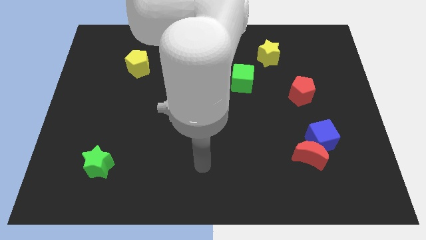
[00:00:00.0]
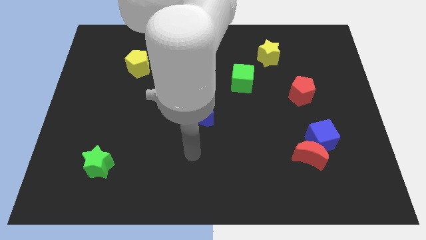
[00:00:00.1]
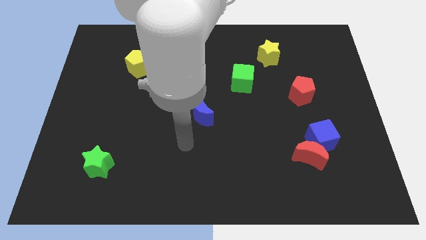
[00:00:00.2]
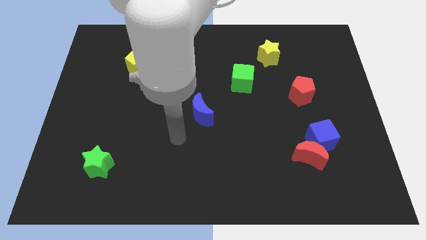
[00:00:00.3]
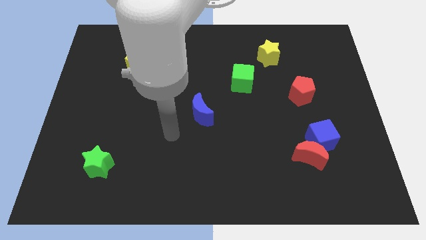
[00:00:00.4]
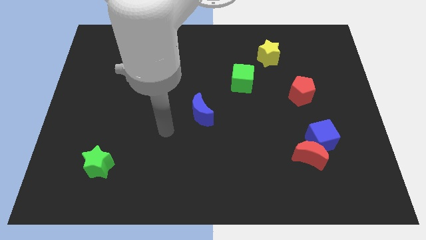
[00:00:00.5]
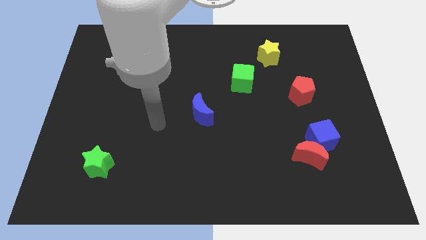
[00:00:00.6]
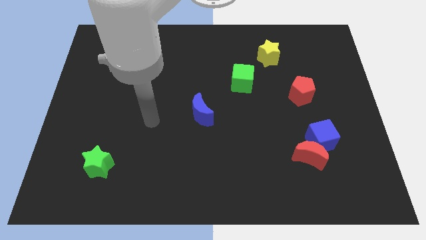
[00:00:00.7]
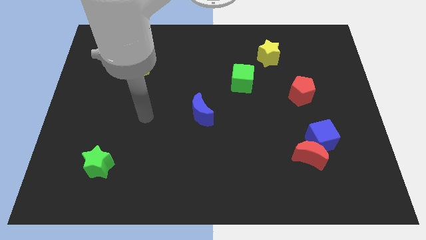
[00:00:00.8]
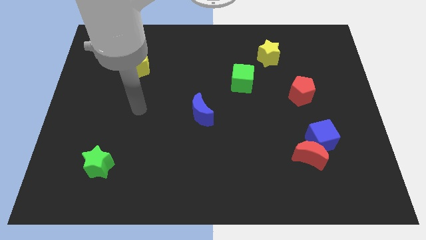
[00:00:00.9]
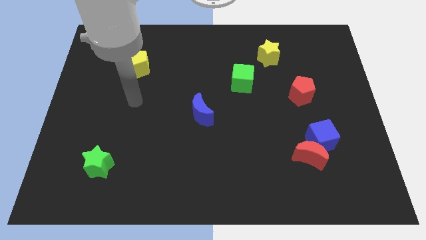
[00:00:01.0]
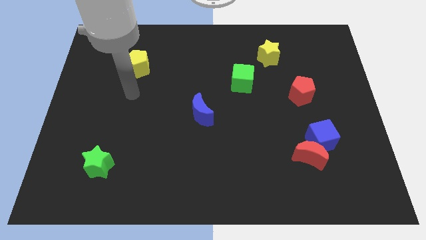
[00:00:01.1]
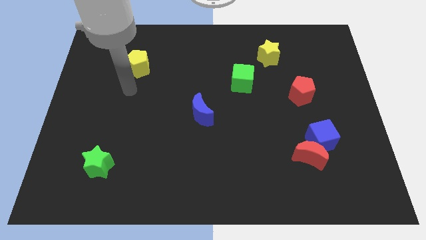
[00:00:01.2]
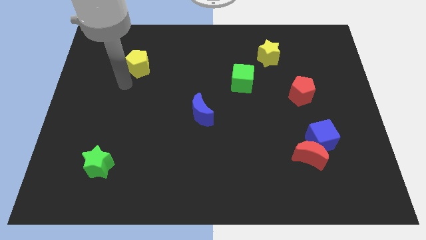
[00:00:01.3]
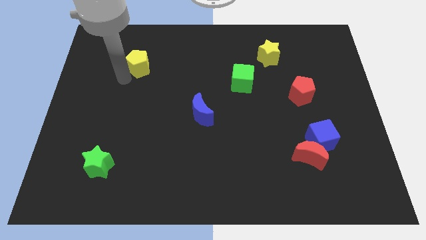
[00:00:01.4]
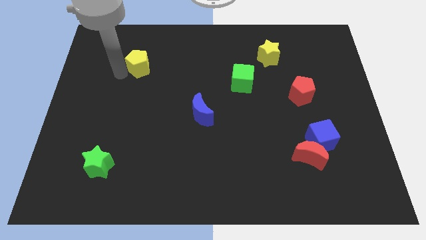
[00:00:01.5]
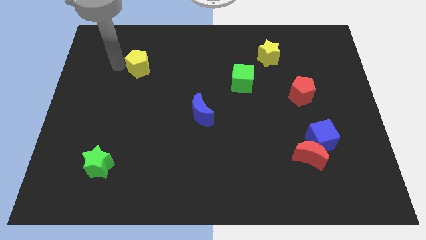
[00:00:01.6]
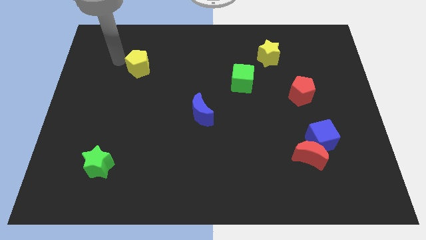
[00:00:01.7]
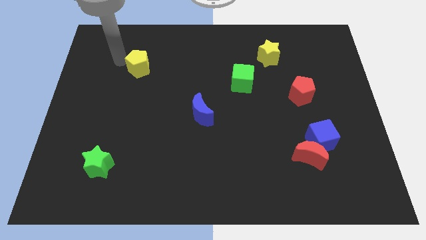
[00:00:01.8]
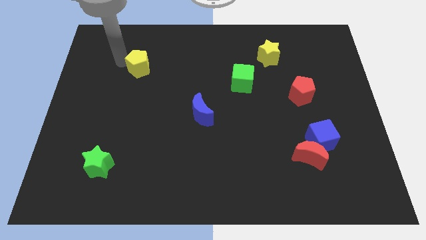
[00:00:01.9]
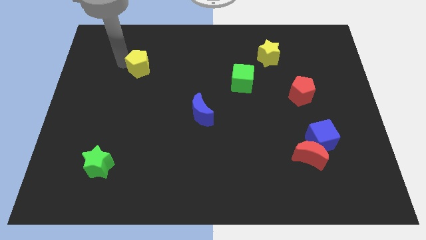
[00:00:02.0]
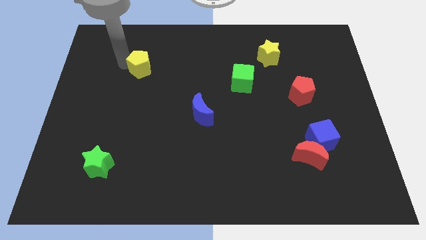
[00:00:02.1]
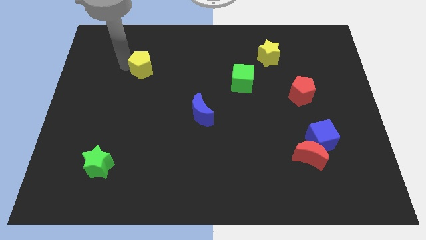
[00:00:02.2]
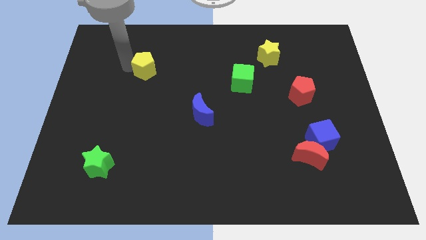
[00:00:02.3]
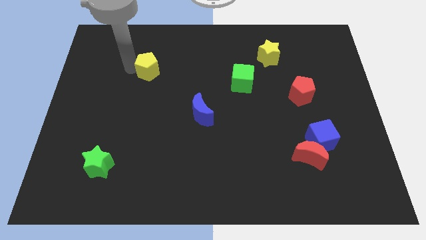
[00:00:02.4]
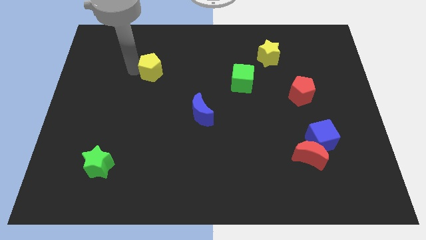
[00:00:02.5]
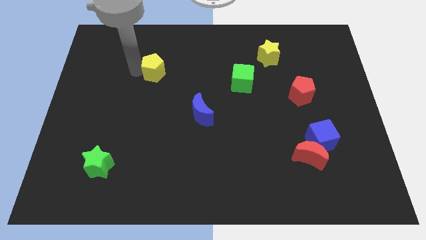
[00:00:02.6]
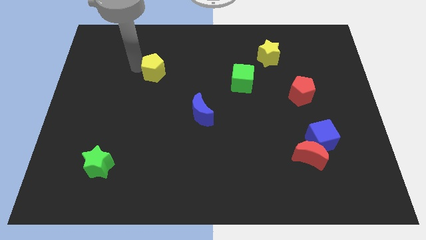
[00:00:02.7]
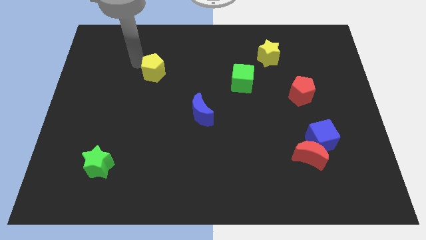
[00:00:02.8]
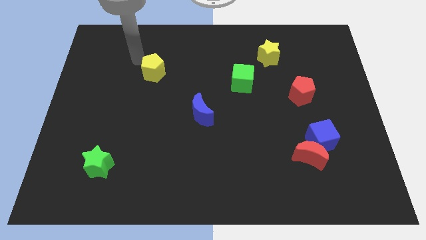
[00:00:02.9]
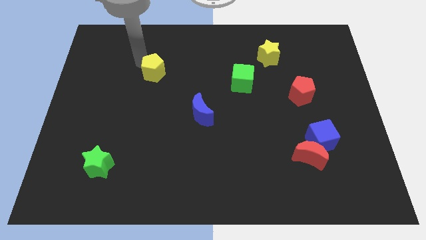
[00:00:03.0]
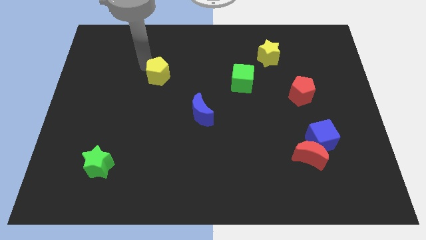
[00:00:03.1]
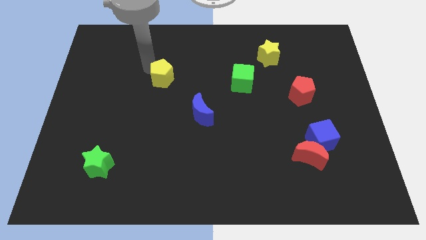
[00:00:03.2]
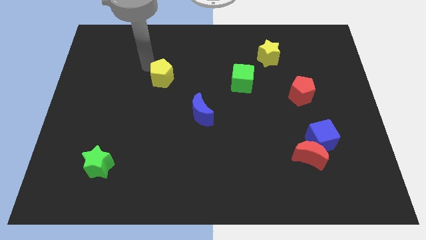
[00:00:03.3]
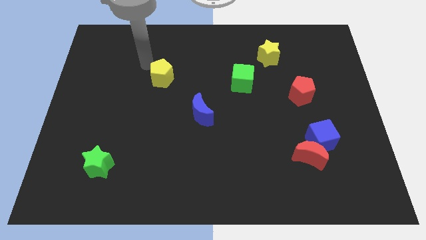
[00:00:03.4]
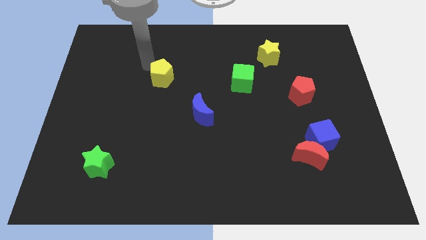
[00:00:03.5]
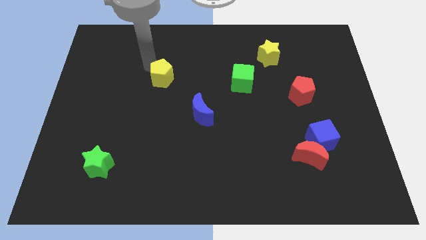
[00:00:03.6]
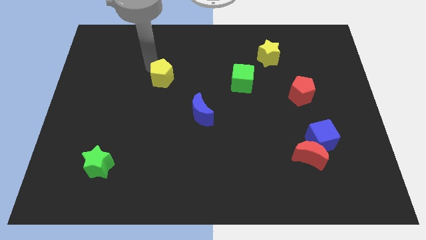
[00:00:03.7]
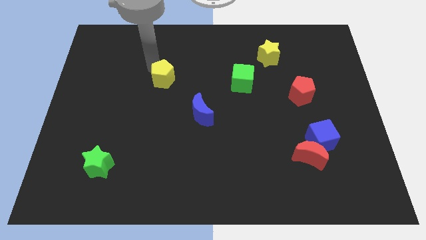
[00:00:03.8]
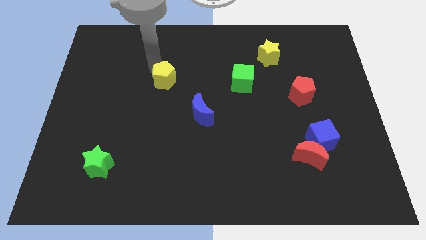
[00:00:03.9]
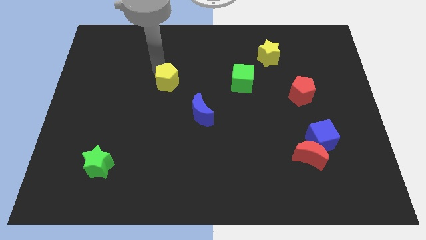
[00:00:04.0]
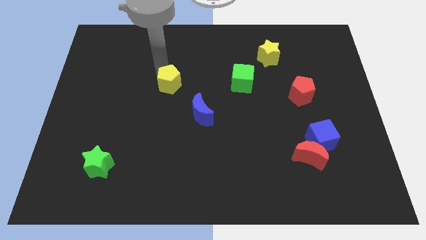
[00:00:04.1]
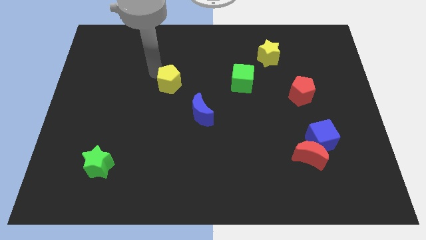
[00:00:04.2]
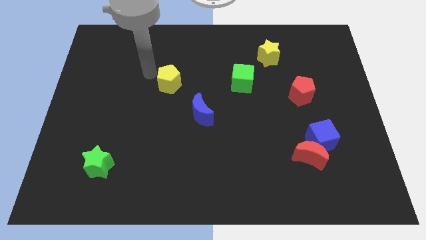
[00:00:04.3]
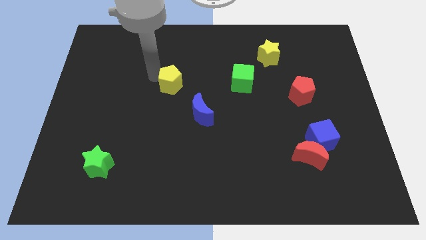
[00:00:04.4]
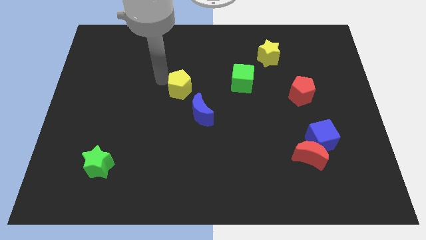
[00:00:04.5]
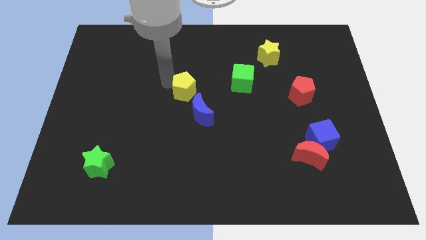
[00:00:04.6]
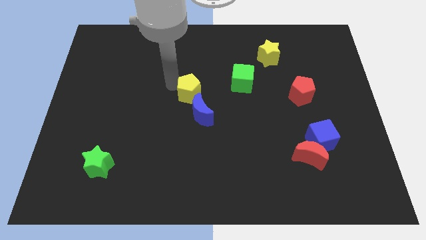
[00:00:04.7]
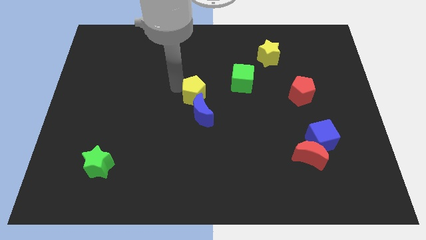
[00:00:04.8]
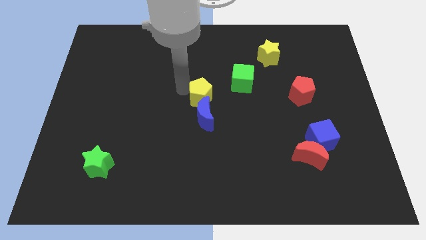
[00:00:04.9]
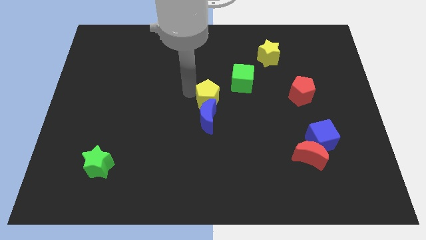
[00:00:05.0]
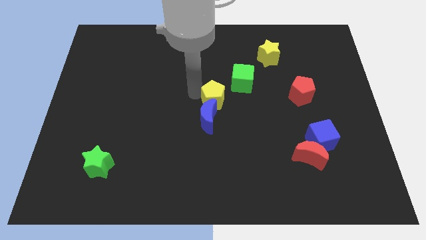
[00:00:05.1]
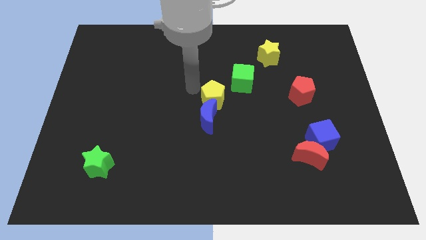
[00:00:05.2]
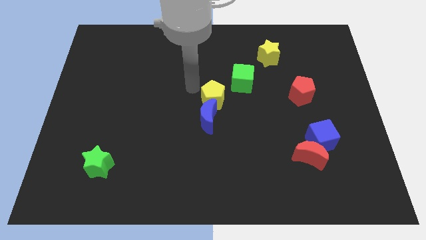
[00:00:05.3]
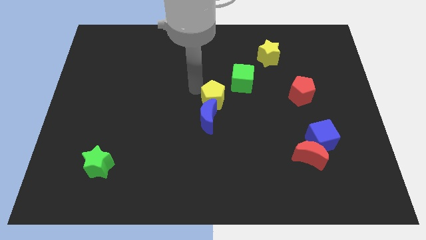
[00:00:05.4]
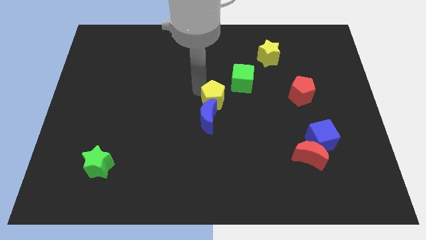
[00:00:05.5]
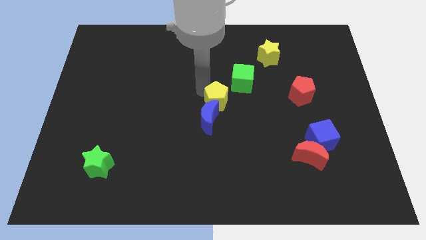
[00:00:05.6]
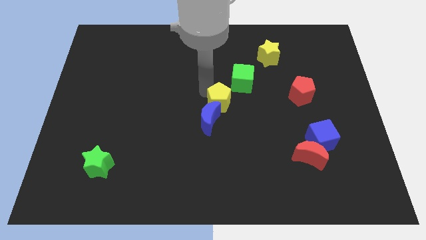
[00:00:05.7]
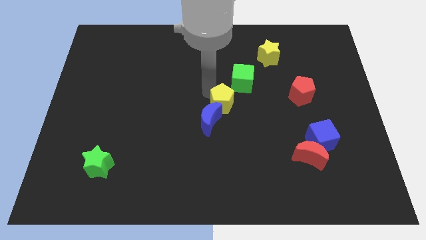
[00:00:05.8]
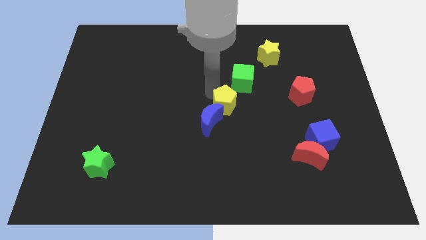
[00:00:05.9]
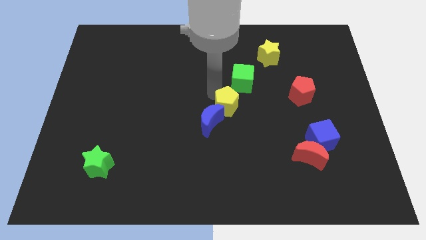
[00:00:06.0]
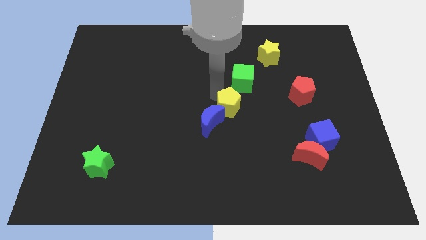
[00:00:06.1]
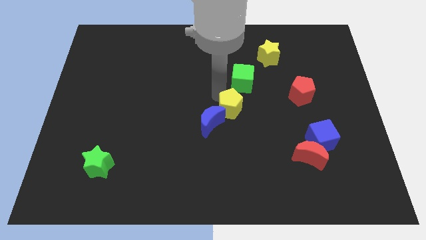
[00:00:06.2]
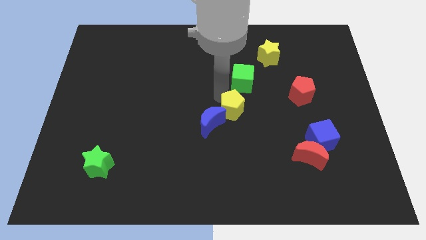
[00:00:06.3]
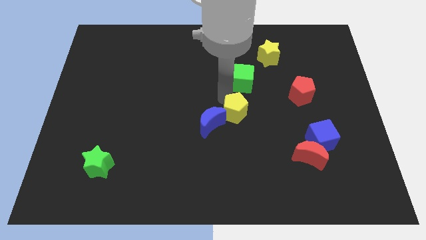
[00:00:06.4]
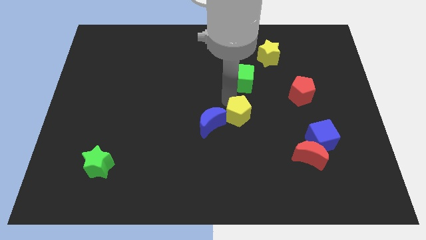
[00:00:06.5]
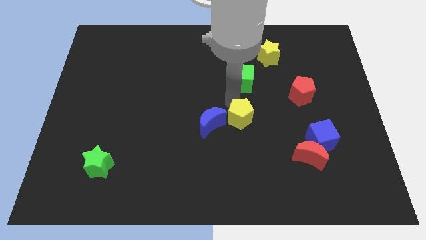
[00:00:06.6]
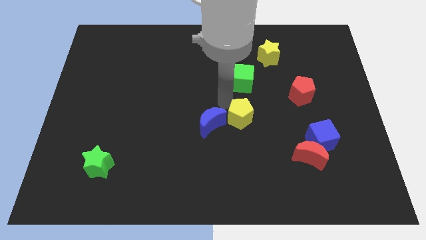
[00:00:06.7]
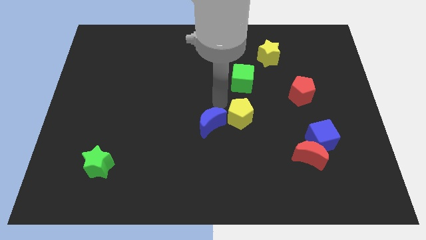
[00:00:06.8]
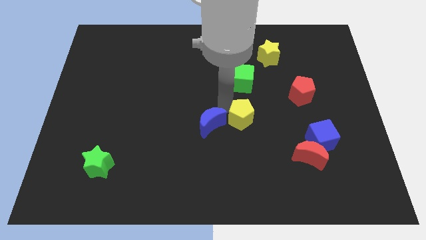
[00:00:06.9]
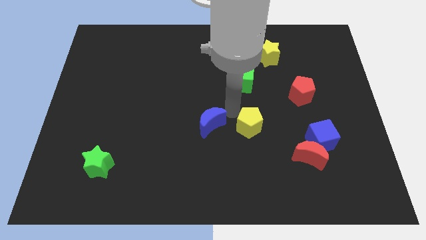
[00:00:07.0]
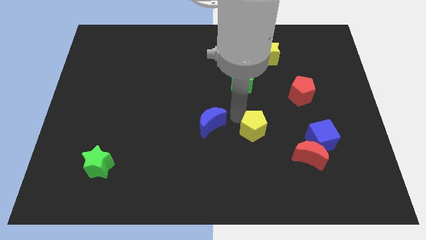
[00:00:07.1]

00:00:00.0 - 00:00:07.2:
push the yellow pentagon to the left side of the blue cube
